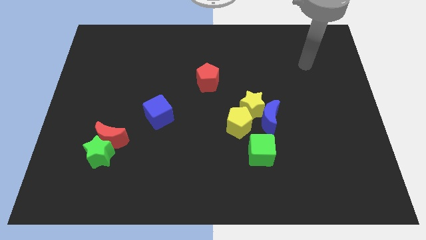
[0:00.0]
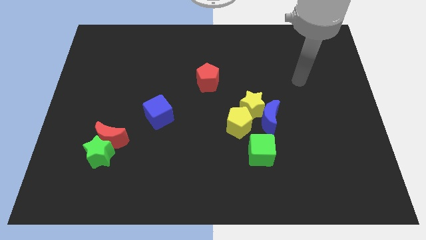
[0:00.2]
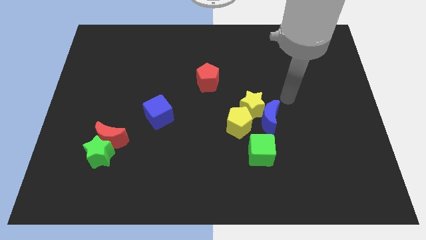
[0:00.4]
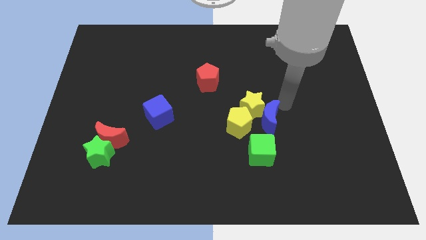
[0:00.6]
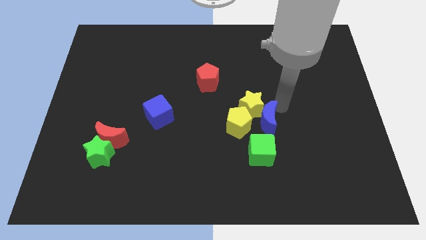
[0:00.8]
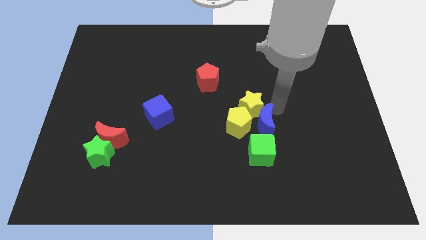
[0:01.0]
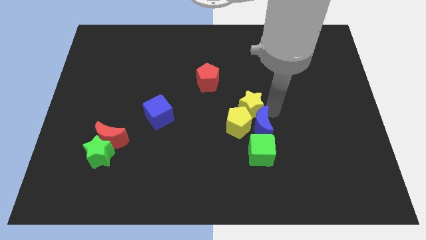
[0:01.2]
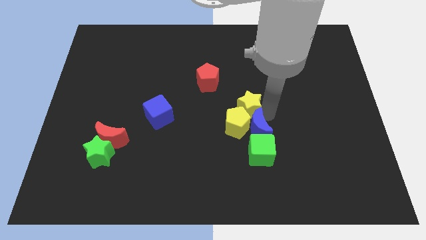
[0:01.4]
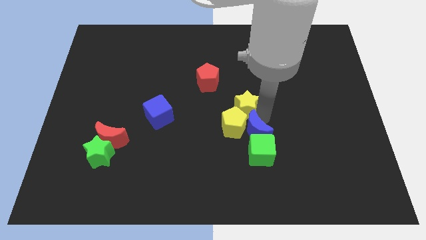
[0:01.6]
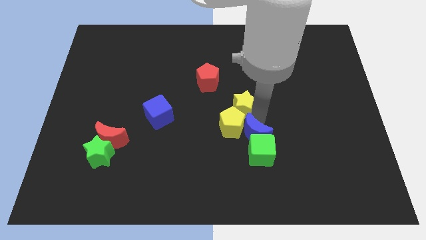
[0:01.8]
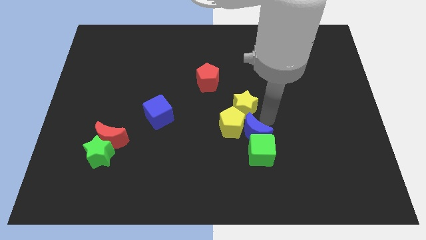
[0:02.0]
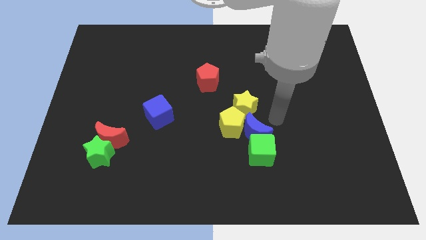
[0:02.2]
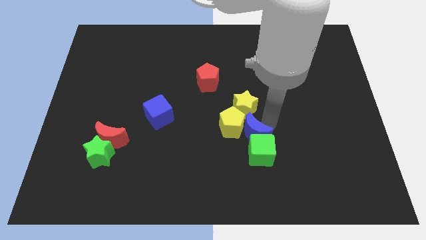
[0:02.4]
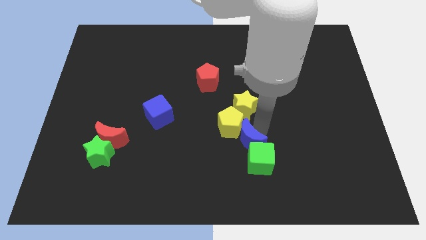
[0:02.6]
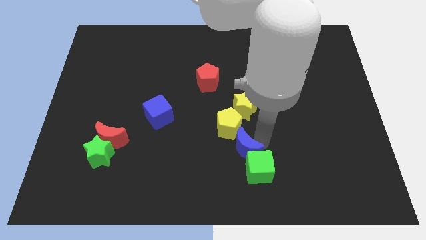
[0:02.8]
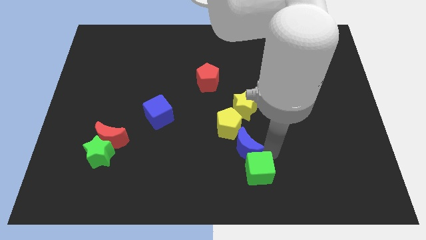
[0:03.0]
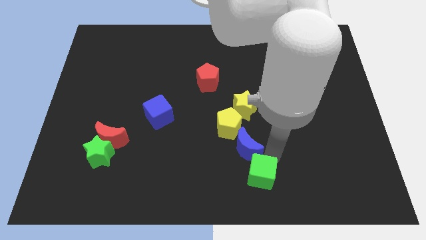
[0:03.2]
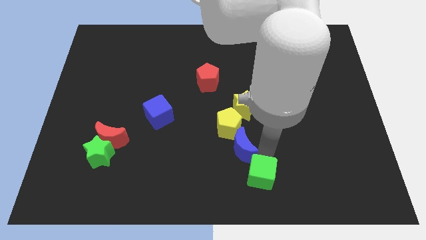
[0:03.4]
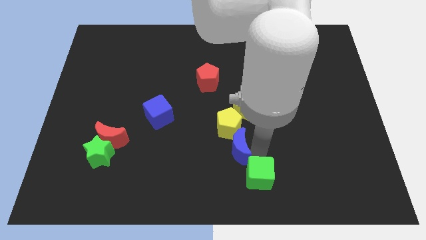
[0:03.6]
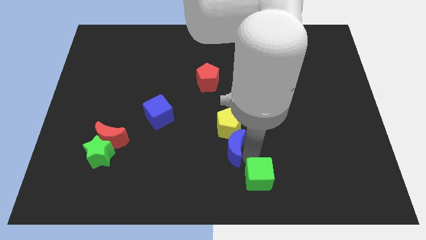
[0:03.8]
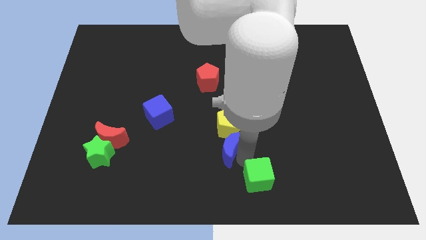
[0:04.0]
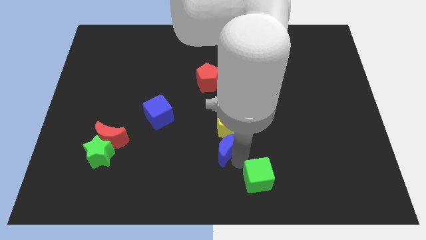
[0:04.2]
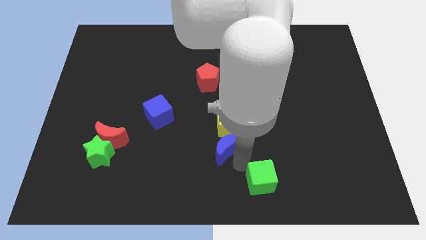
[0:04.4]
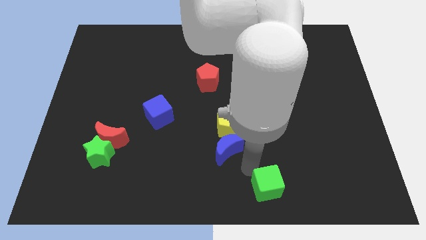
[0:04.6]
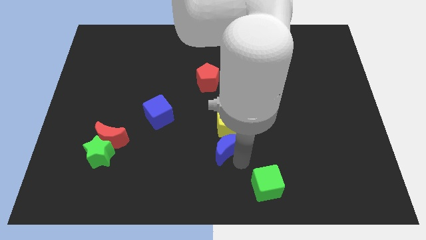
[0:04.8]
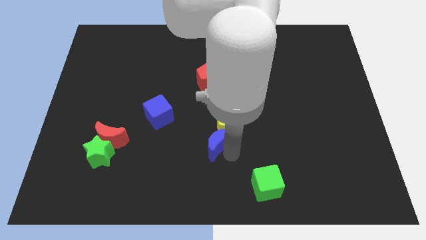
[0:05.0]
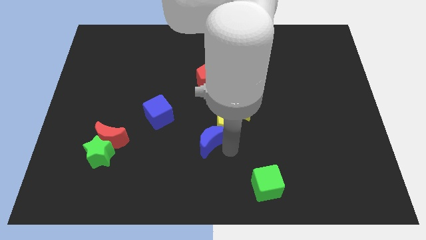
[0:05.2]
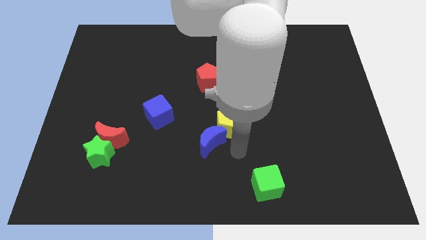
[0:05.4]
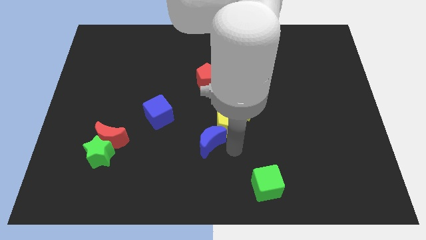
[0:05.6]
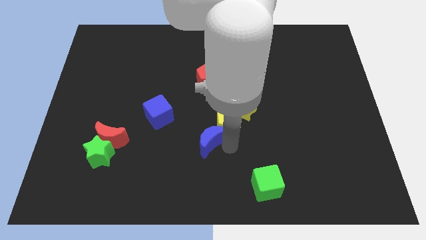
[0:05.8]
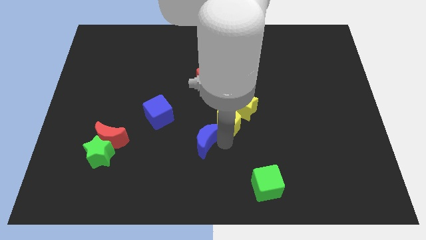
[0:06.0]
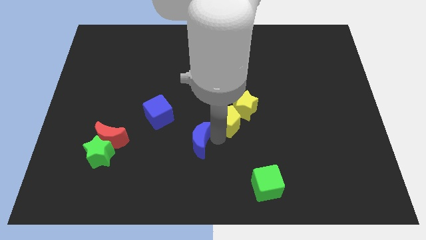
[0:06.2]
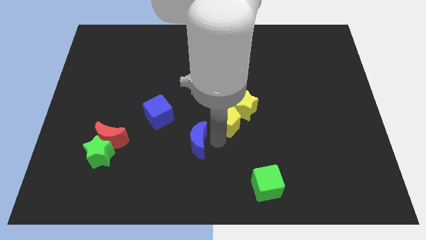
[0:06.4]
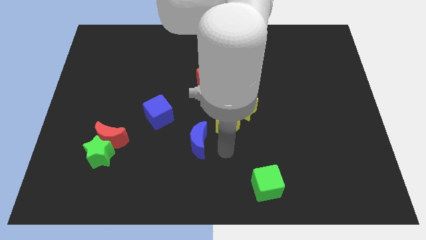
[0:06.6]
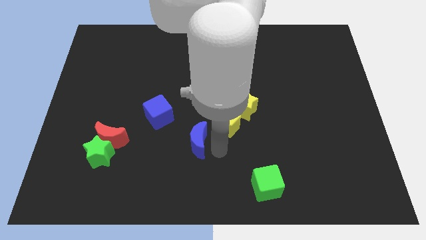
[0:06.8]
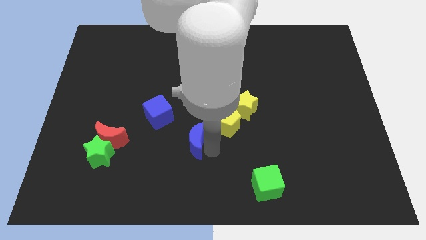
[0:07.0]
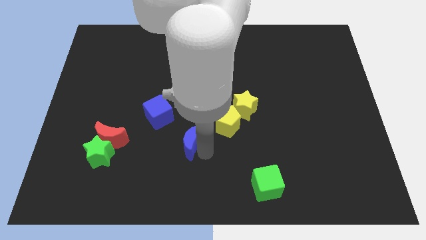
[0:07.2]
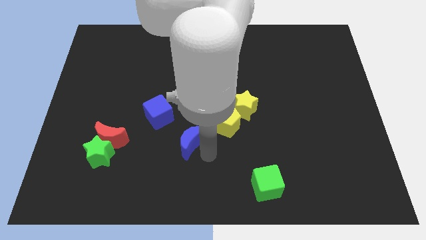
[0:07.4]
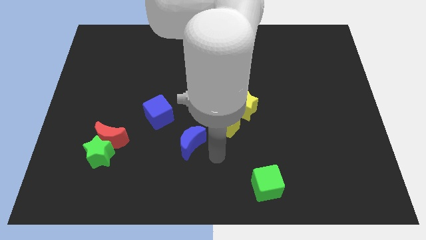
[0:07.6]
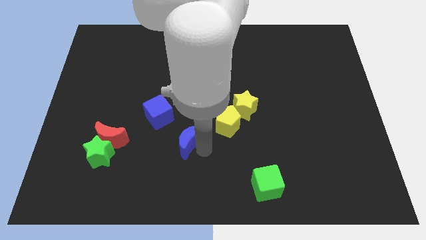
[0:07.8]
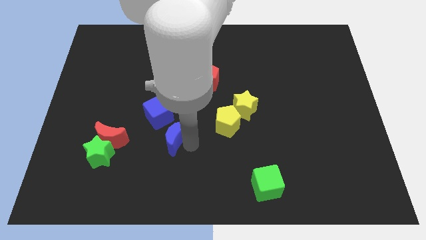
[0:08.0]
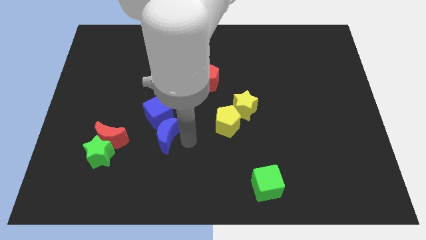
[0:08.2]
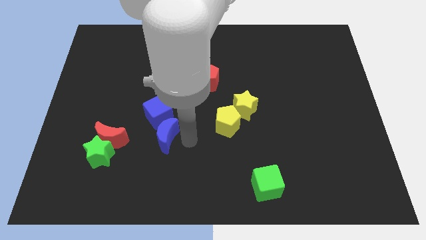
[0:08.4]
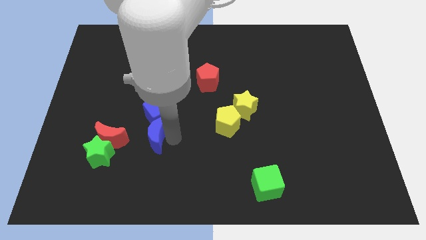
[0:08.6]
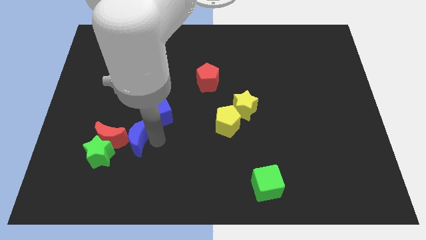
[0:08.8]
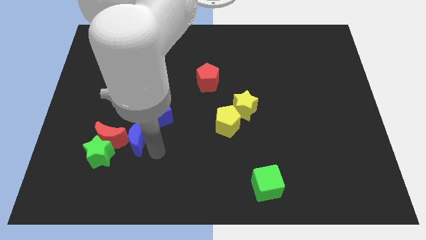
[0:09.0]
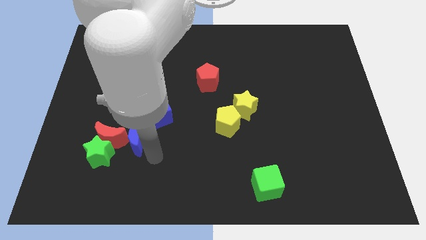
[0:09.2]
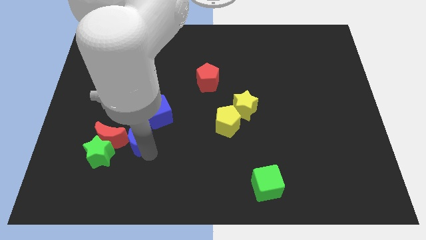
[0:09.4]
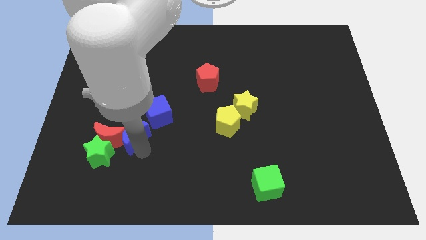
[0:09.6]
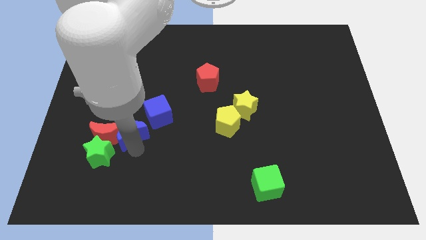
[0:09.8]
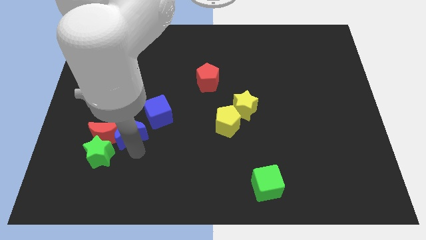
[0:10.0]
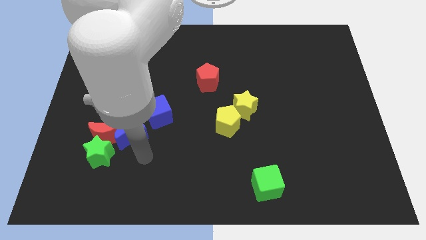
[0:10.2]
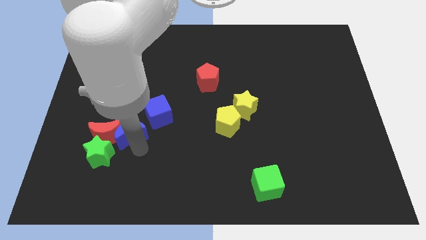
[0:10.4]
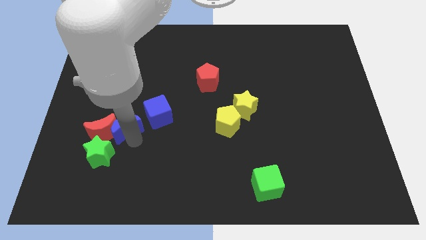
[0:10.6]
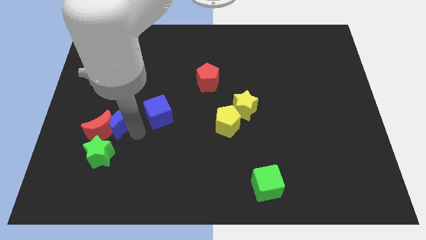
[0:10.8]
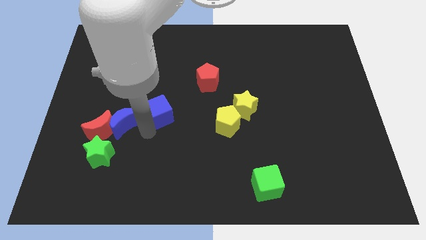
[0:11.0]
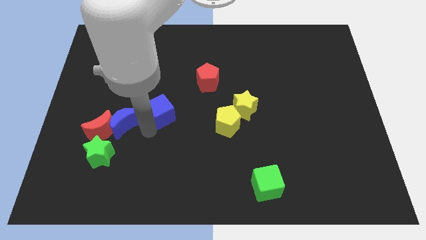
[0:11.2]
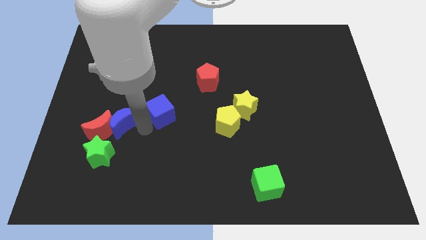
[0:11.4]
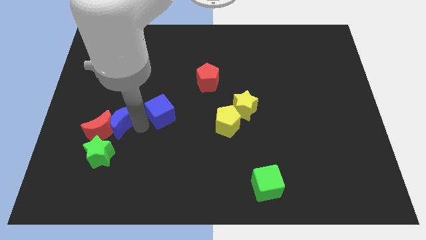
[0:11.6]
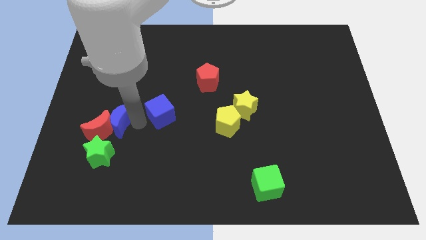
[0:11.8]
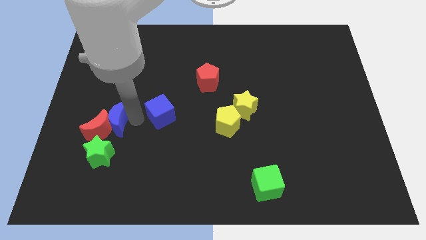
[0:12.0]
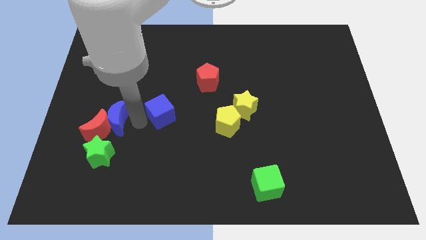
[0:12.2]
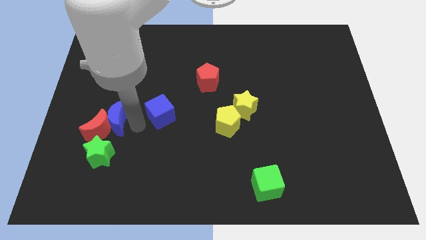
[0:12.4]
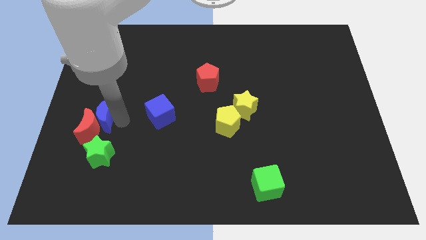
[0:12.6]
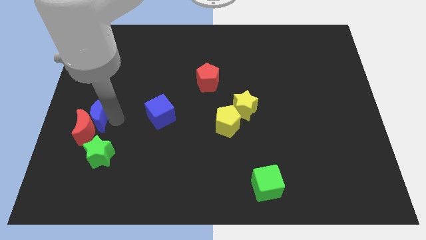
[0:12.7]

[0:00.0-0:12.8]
put the blue moon to the left side of the board

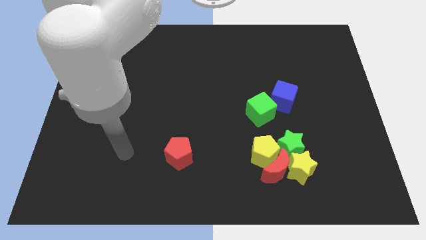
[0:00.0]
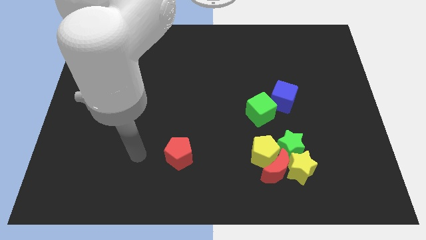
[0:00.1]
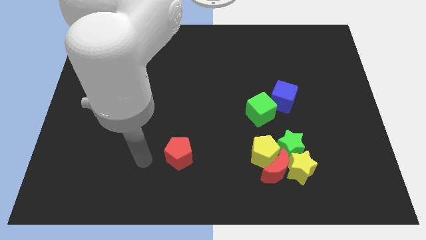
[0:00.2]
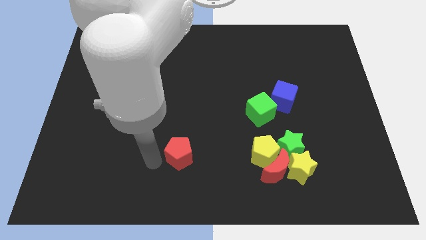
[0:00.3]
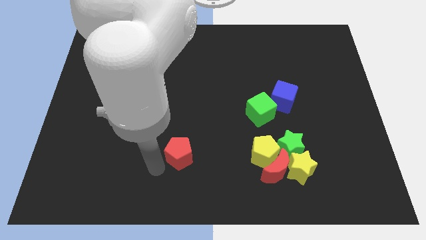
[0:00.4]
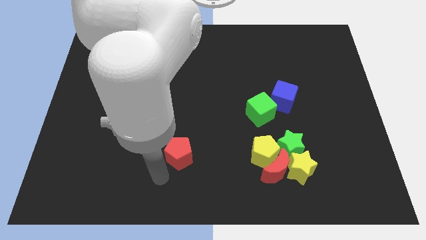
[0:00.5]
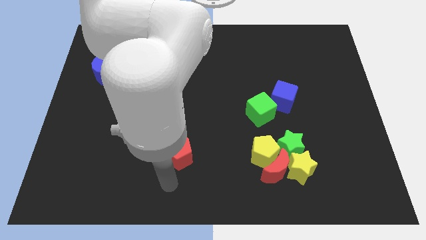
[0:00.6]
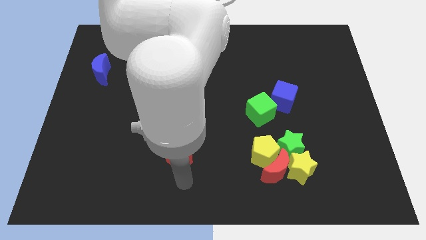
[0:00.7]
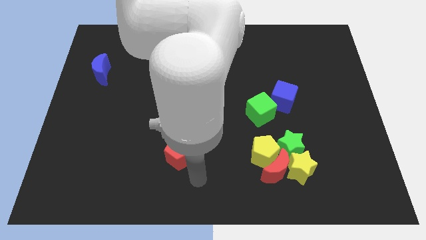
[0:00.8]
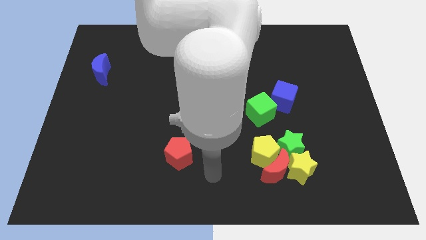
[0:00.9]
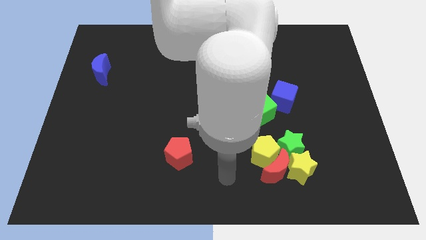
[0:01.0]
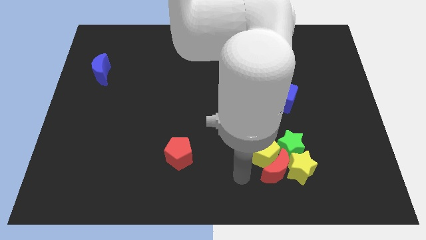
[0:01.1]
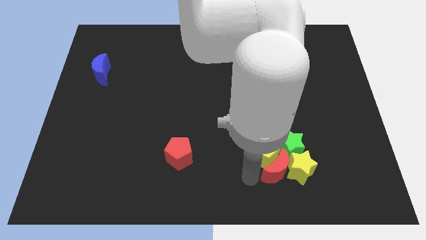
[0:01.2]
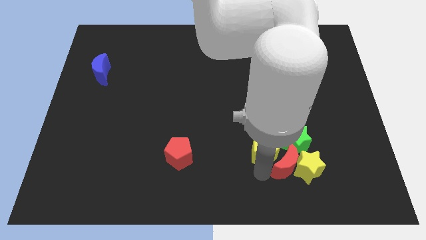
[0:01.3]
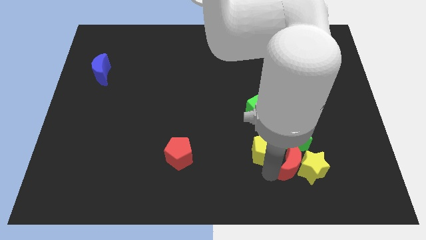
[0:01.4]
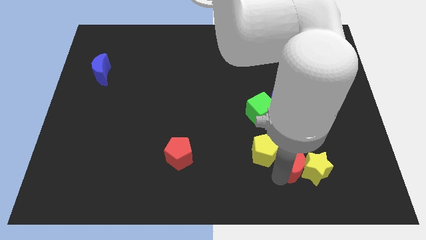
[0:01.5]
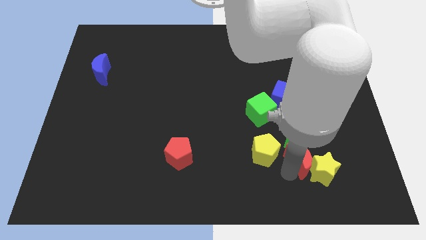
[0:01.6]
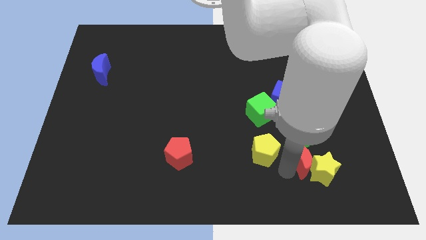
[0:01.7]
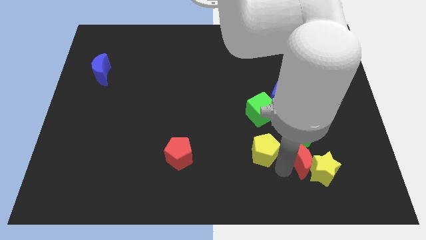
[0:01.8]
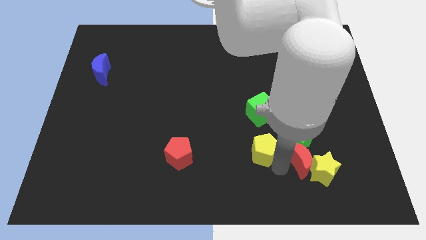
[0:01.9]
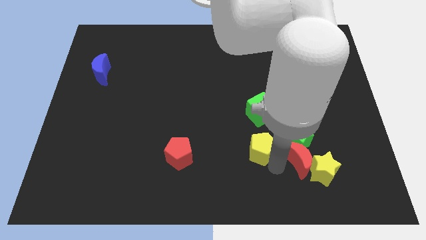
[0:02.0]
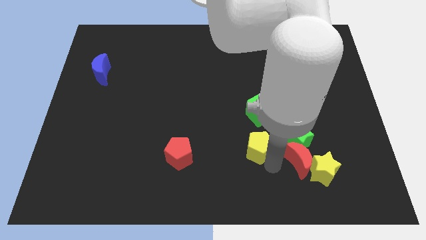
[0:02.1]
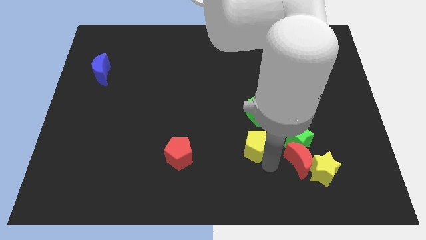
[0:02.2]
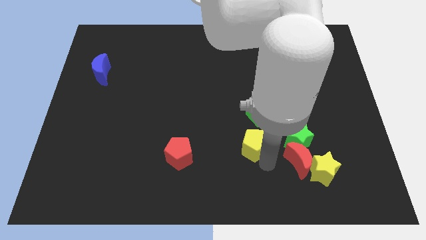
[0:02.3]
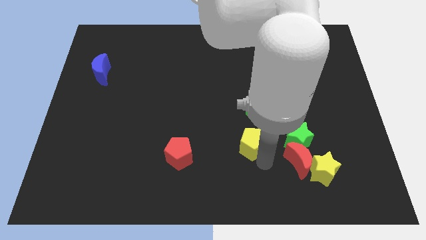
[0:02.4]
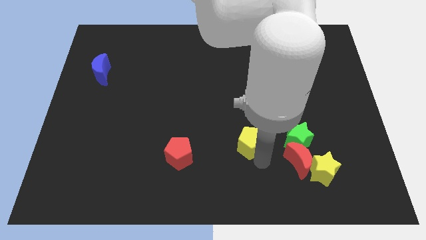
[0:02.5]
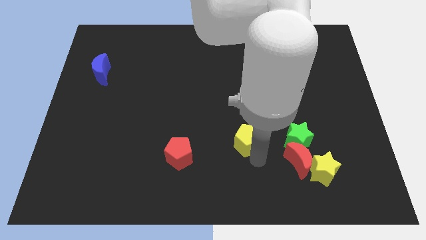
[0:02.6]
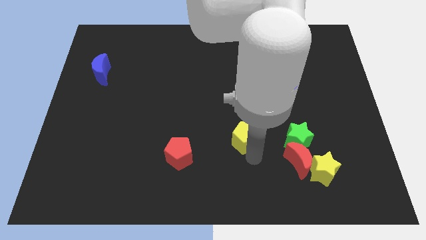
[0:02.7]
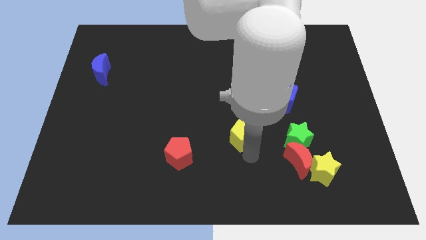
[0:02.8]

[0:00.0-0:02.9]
slide the yellow pentagon to the center
